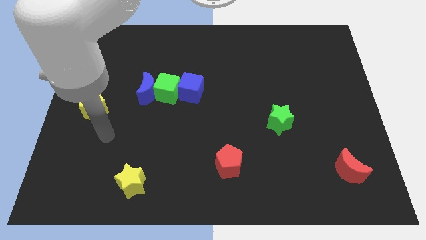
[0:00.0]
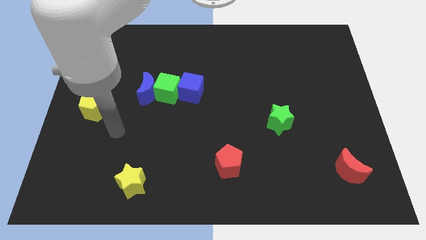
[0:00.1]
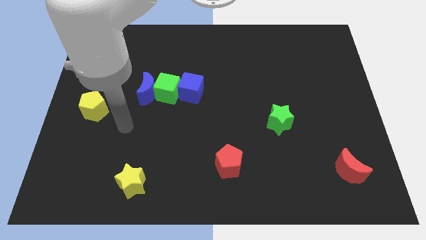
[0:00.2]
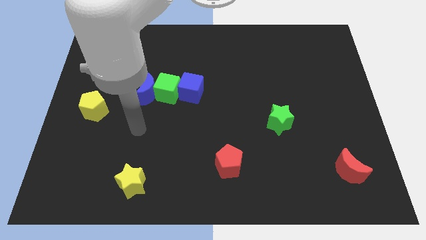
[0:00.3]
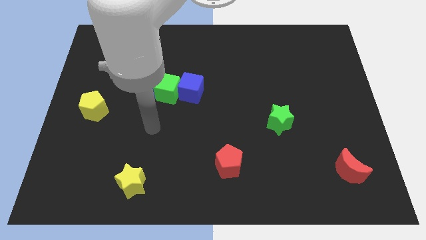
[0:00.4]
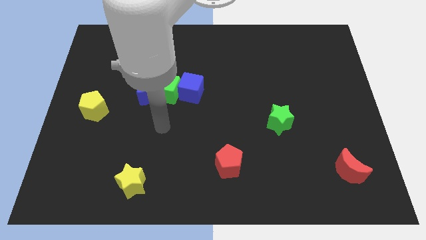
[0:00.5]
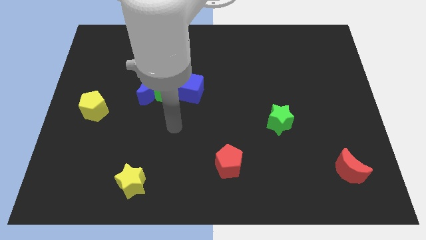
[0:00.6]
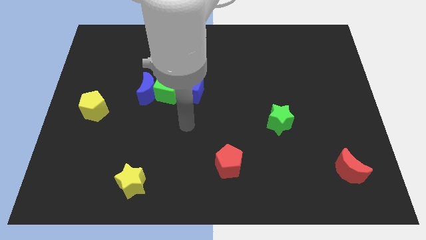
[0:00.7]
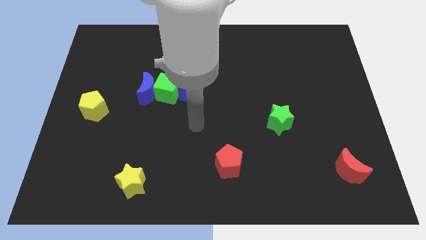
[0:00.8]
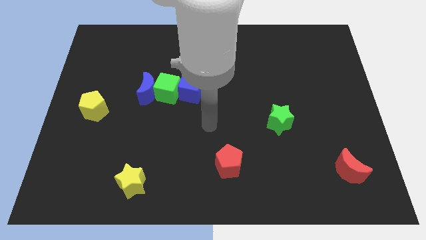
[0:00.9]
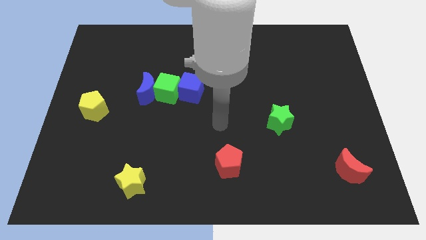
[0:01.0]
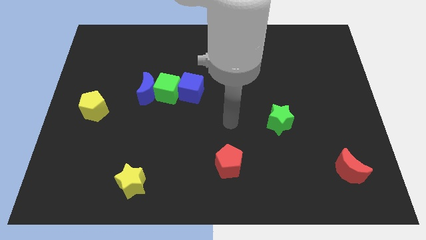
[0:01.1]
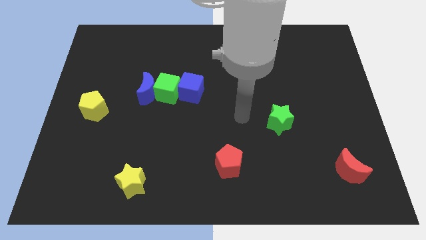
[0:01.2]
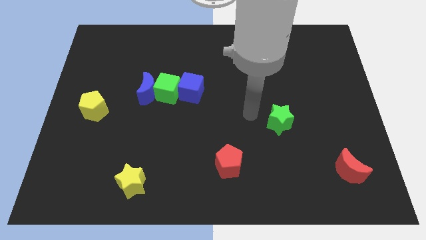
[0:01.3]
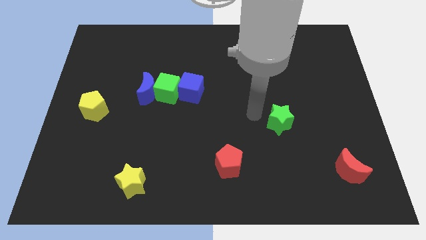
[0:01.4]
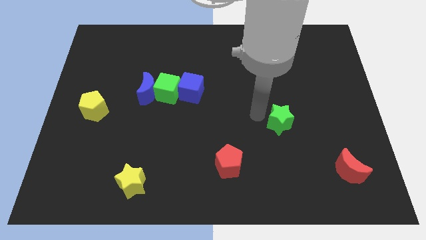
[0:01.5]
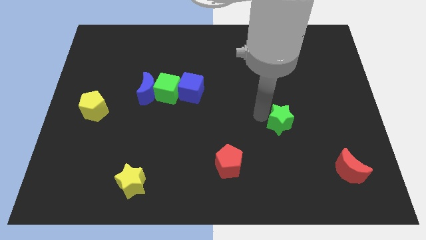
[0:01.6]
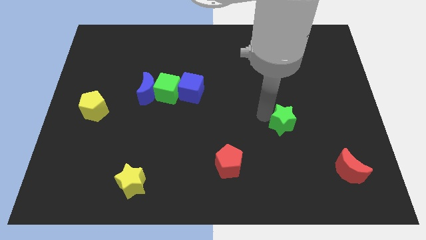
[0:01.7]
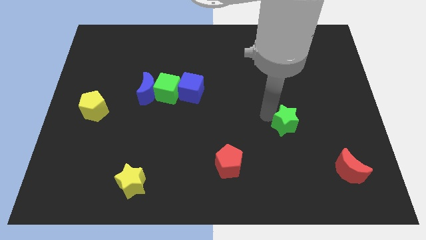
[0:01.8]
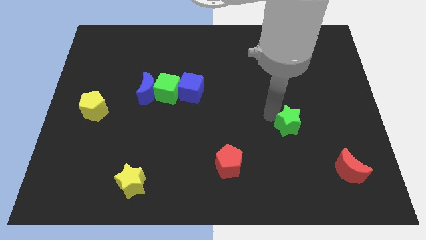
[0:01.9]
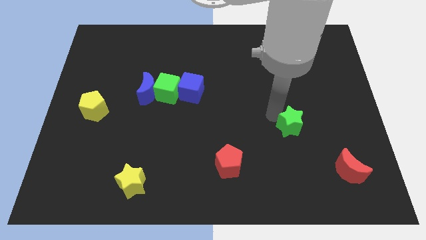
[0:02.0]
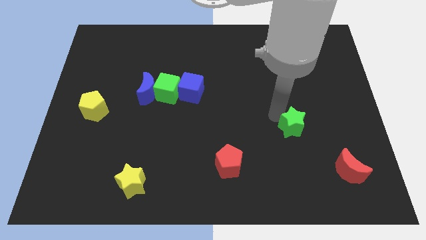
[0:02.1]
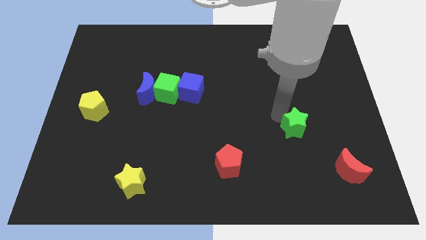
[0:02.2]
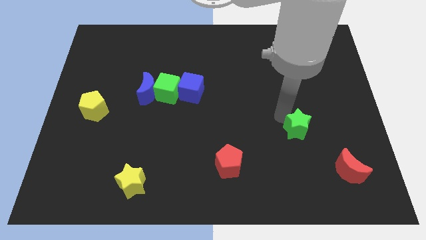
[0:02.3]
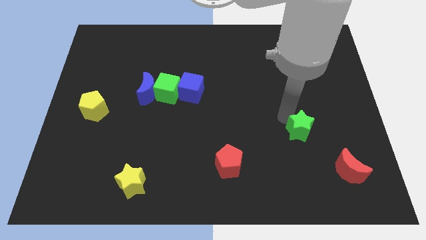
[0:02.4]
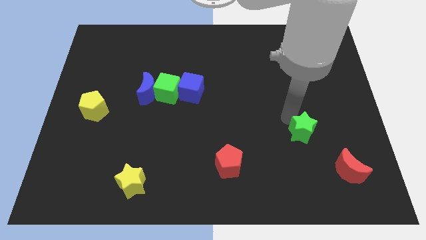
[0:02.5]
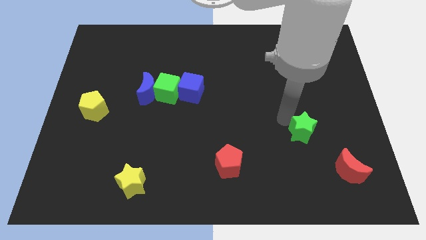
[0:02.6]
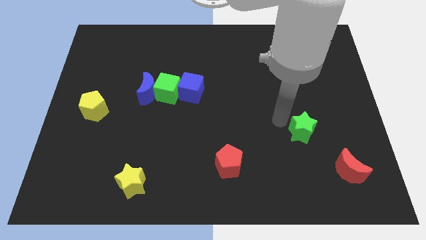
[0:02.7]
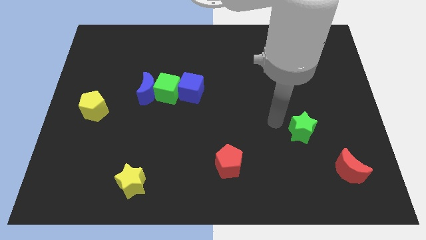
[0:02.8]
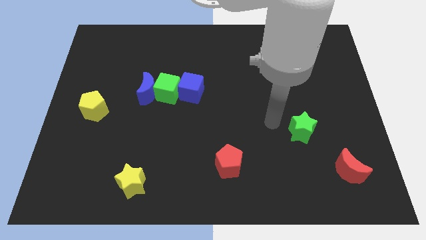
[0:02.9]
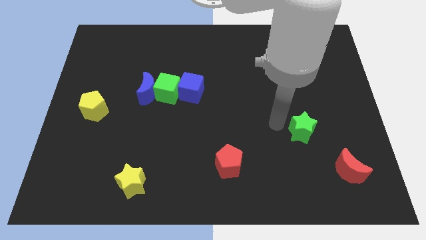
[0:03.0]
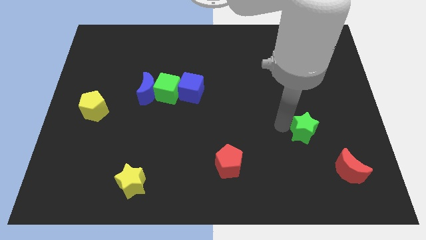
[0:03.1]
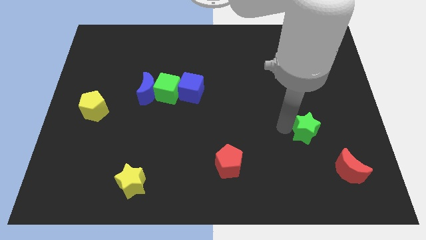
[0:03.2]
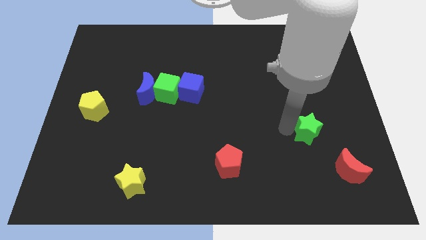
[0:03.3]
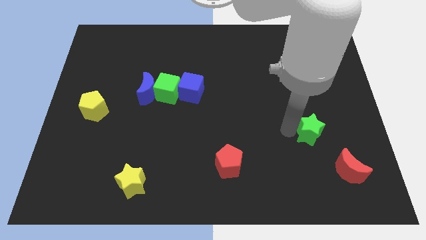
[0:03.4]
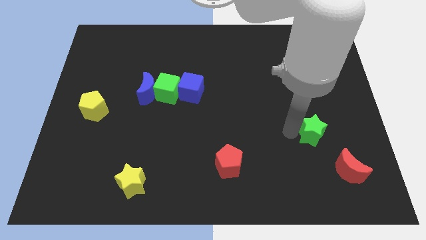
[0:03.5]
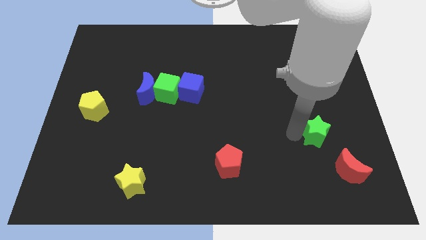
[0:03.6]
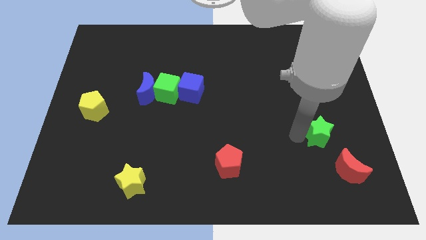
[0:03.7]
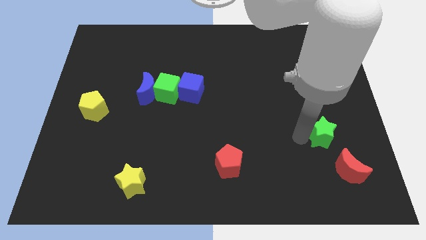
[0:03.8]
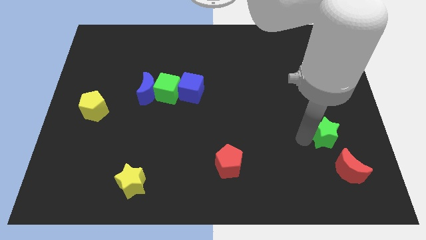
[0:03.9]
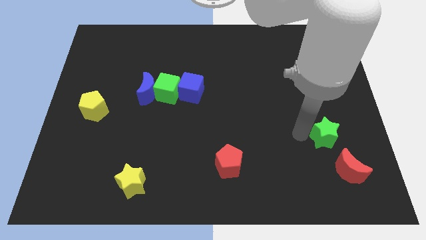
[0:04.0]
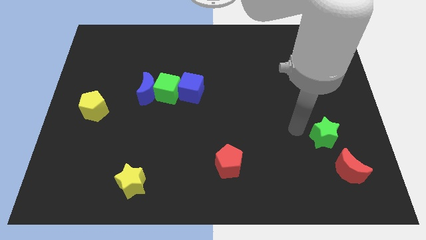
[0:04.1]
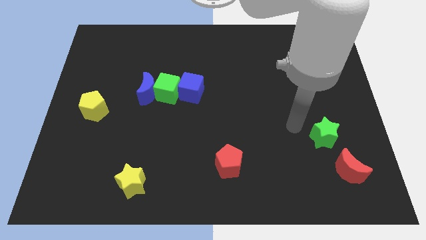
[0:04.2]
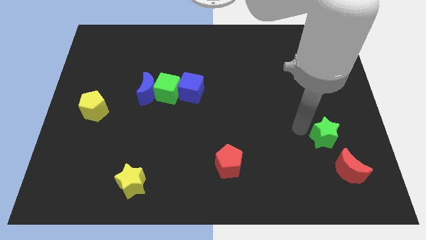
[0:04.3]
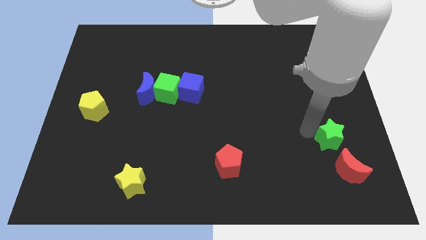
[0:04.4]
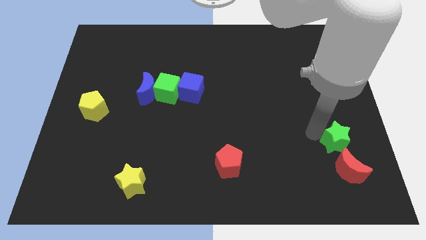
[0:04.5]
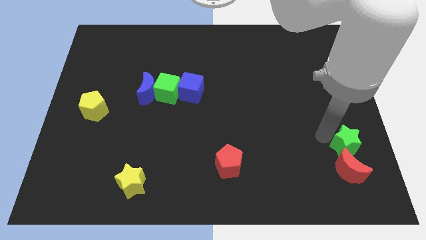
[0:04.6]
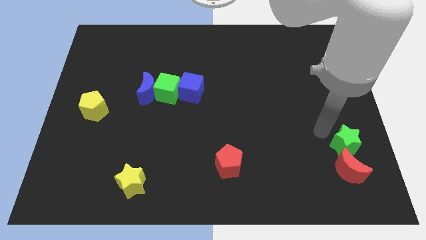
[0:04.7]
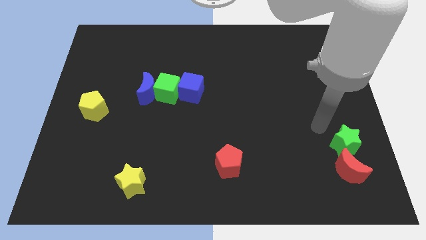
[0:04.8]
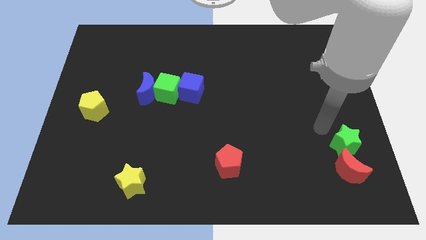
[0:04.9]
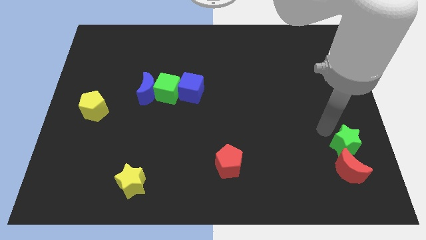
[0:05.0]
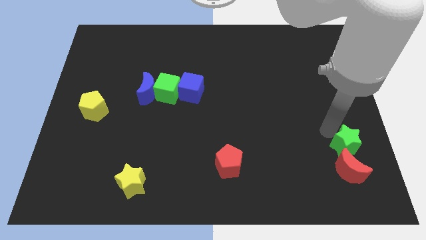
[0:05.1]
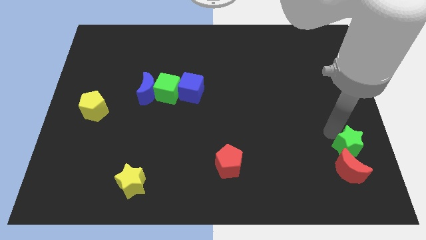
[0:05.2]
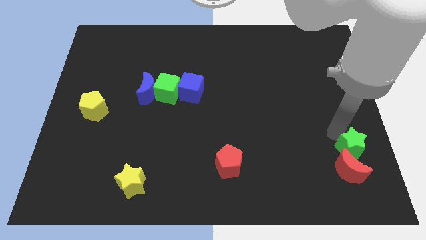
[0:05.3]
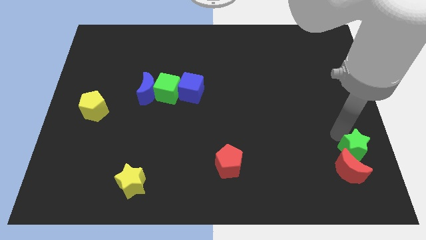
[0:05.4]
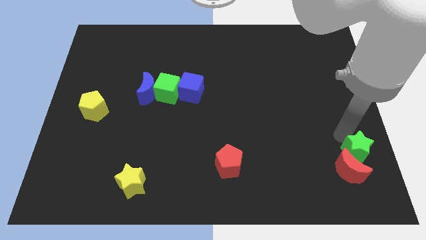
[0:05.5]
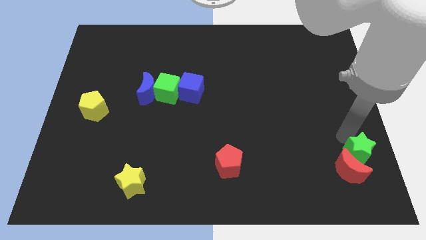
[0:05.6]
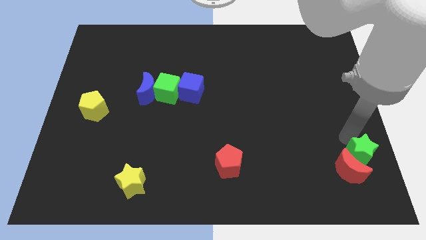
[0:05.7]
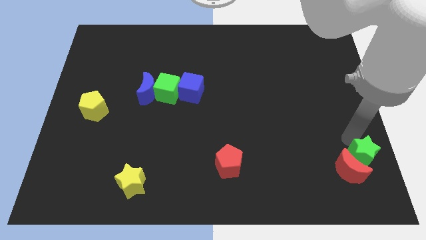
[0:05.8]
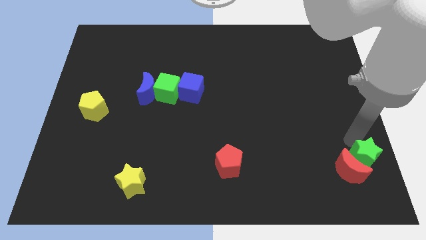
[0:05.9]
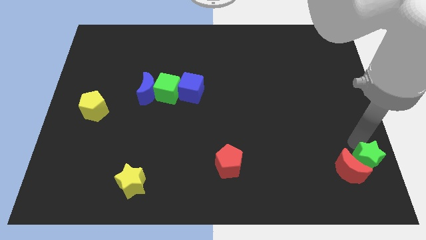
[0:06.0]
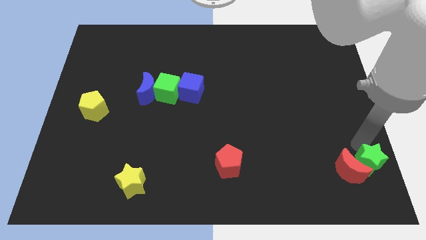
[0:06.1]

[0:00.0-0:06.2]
move the green star to the lower right corner

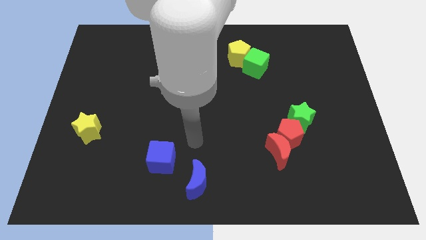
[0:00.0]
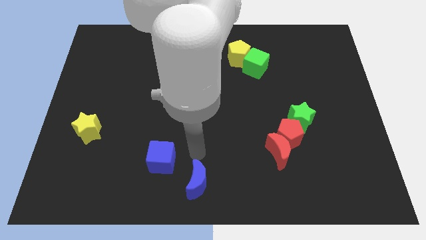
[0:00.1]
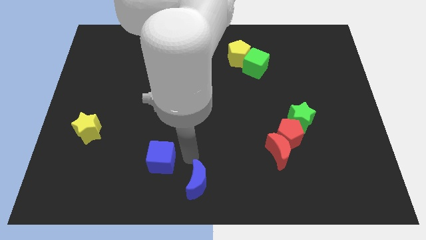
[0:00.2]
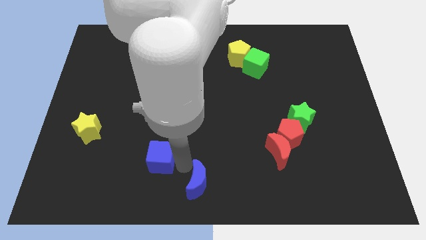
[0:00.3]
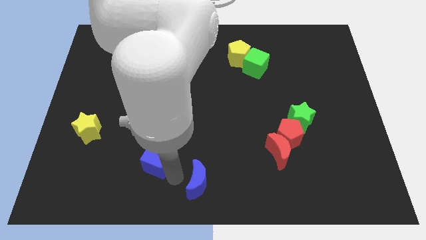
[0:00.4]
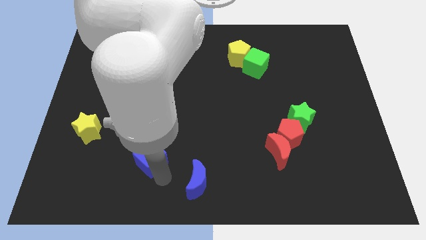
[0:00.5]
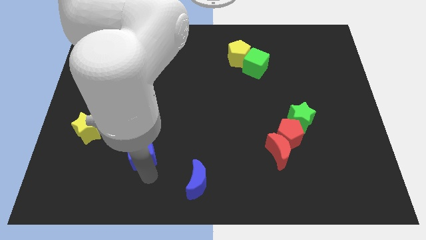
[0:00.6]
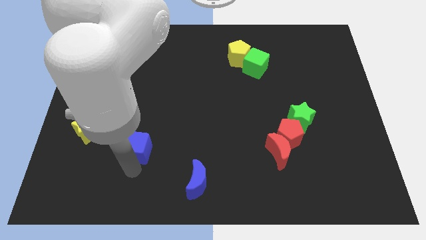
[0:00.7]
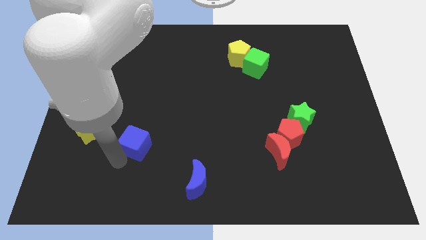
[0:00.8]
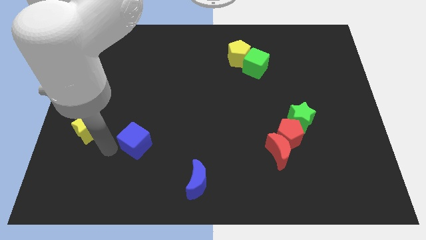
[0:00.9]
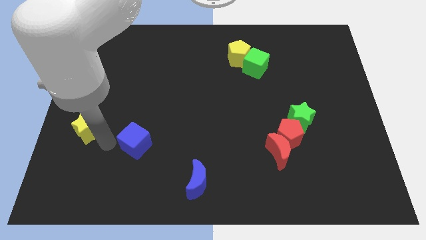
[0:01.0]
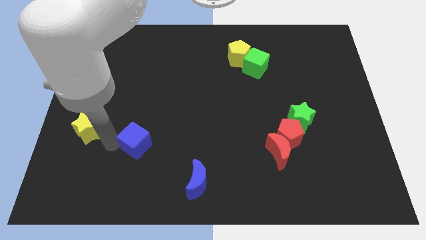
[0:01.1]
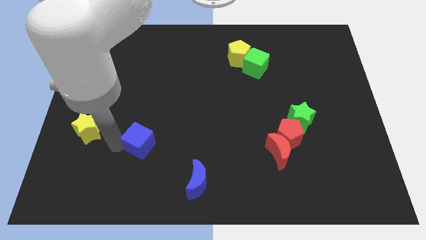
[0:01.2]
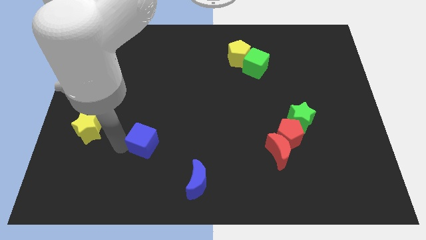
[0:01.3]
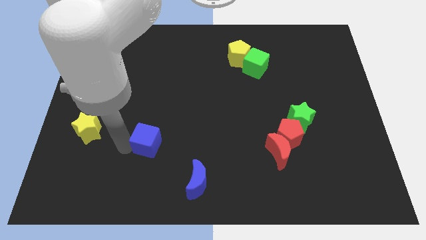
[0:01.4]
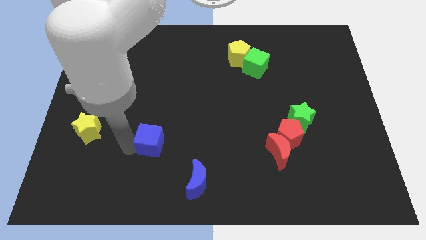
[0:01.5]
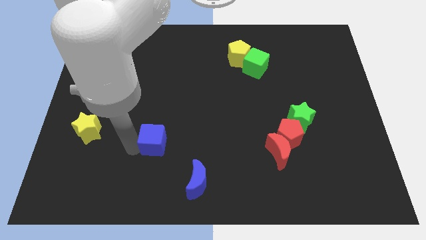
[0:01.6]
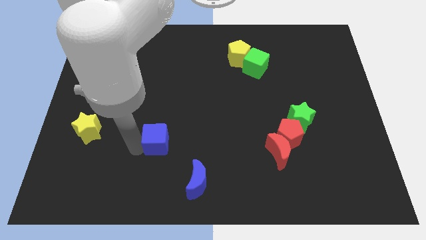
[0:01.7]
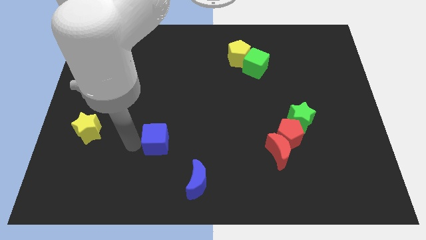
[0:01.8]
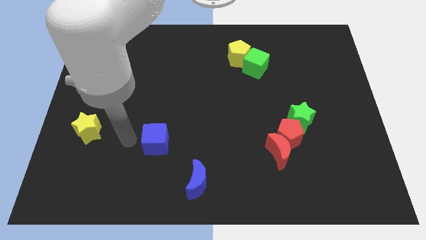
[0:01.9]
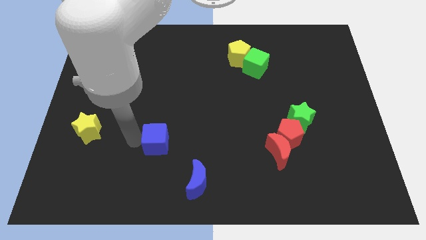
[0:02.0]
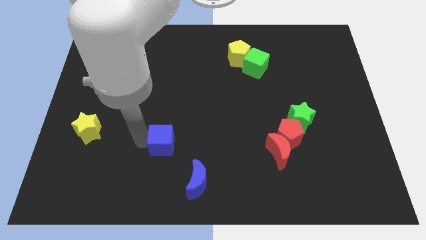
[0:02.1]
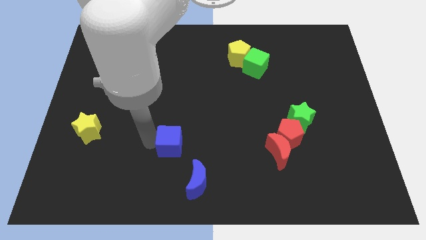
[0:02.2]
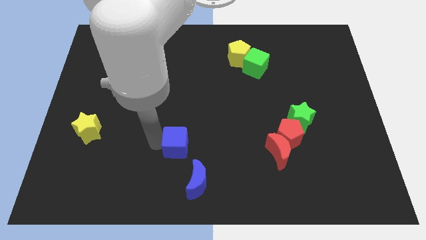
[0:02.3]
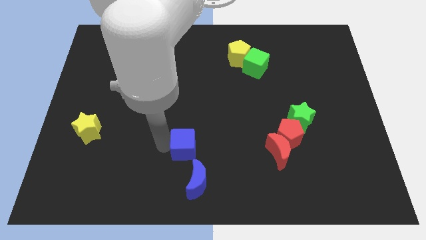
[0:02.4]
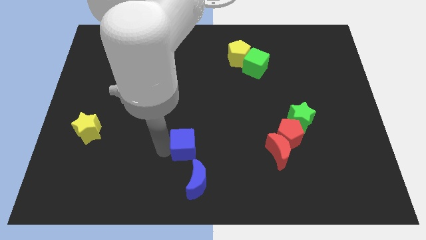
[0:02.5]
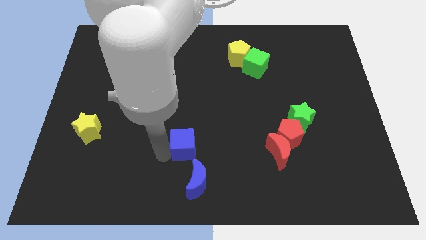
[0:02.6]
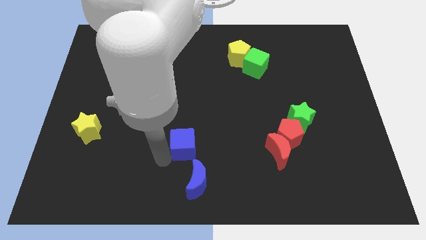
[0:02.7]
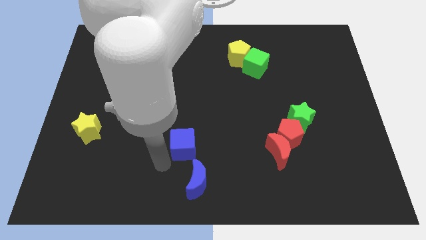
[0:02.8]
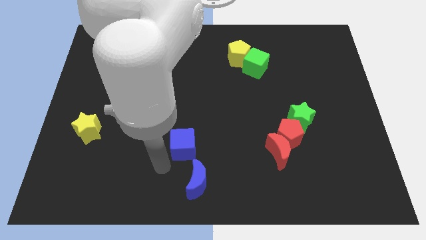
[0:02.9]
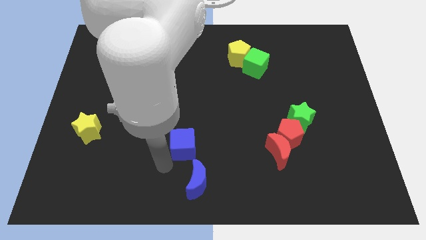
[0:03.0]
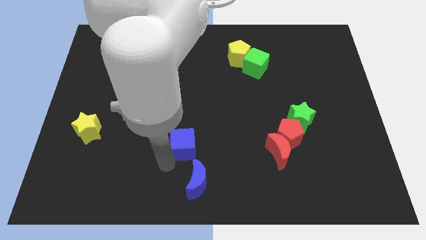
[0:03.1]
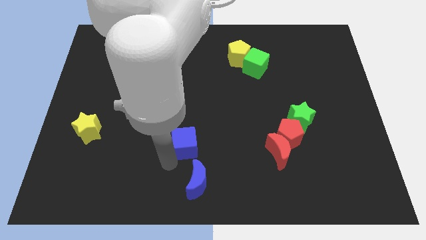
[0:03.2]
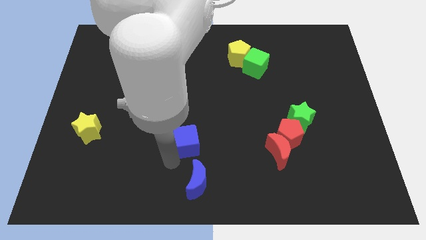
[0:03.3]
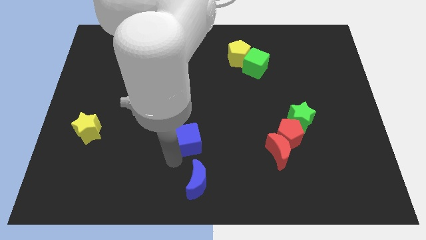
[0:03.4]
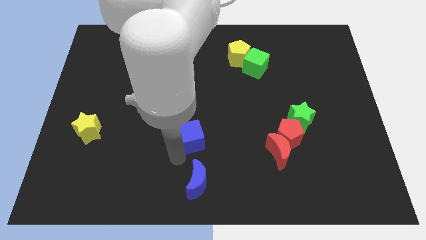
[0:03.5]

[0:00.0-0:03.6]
put the blue cube to the middle of the board
